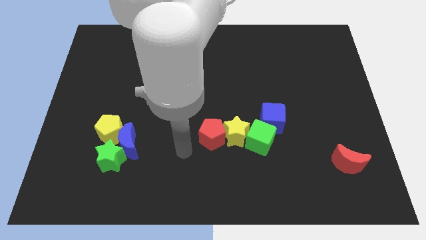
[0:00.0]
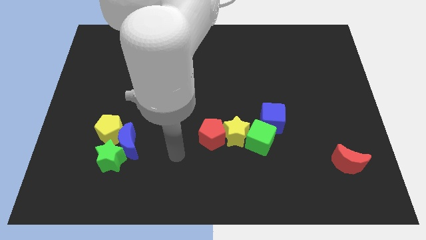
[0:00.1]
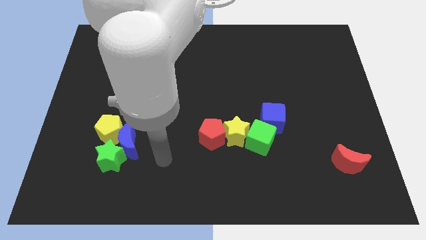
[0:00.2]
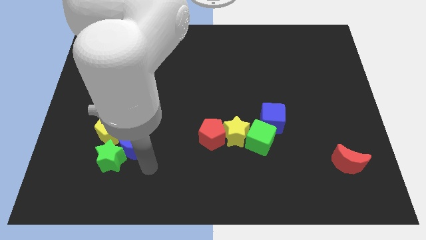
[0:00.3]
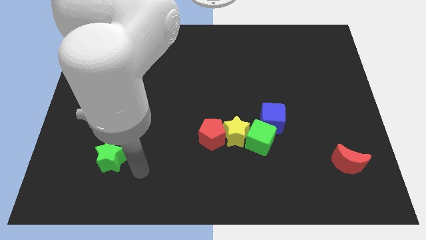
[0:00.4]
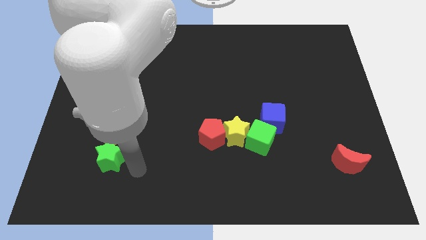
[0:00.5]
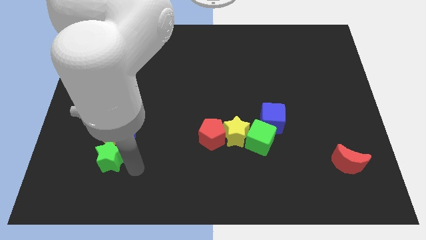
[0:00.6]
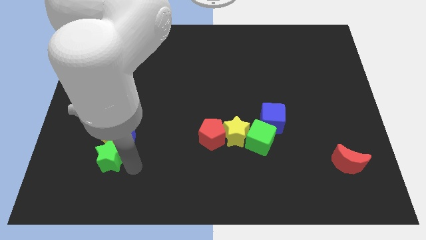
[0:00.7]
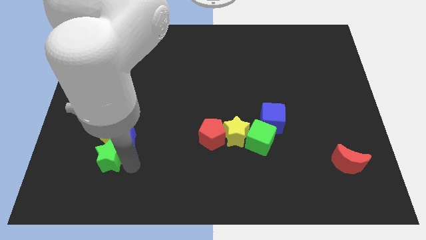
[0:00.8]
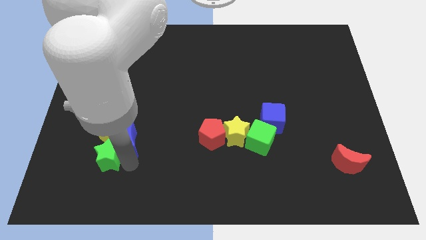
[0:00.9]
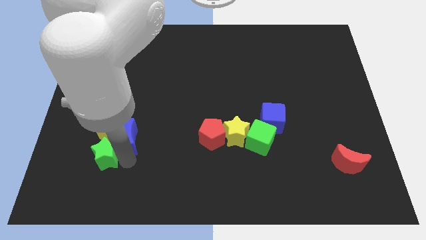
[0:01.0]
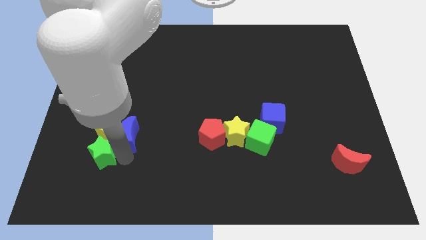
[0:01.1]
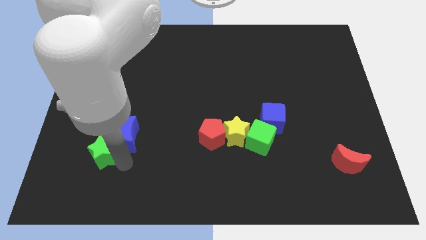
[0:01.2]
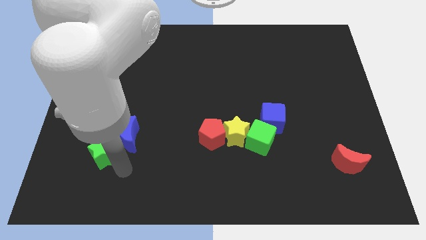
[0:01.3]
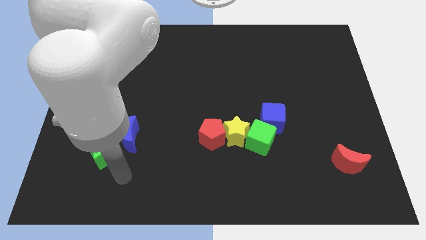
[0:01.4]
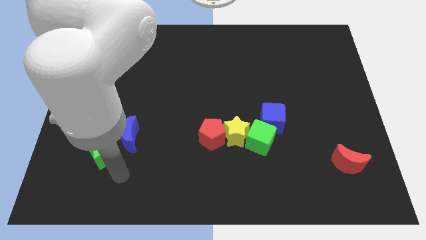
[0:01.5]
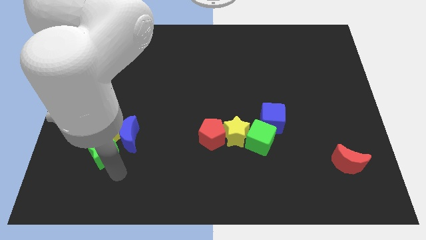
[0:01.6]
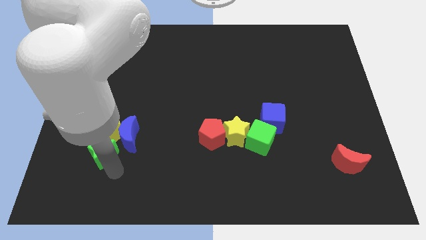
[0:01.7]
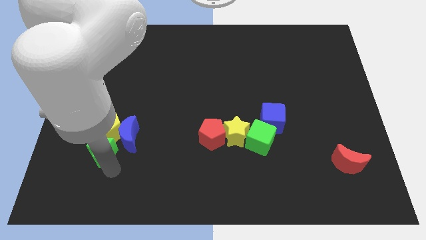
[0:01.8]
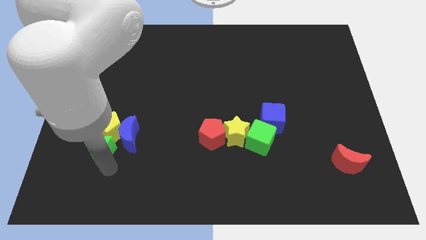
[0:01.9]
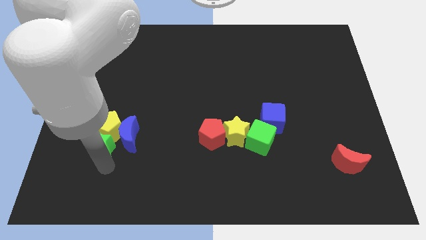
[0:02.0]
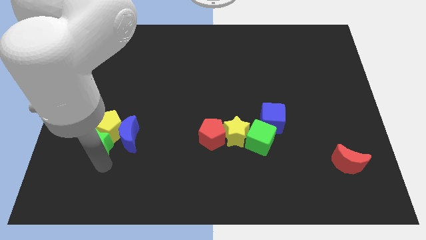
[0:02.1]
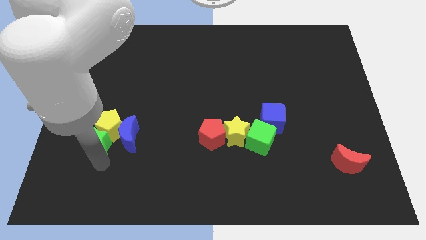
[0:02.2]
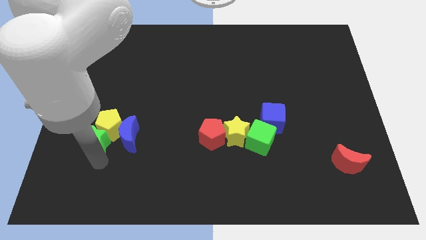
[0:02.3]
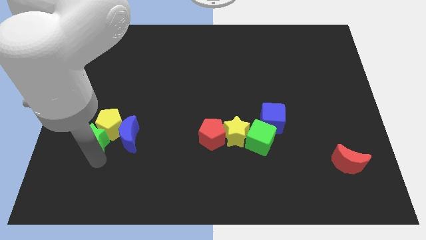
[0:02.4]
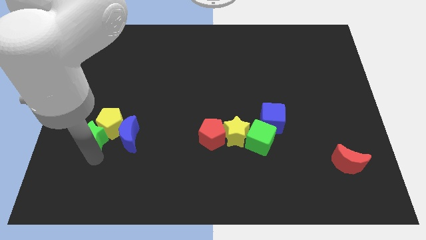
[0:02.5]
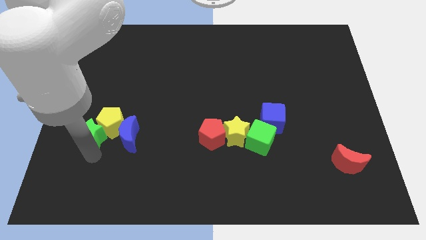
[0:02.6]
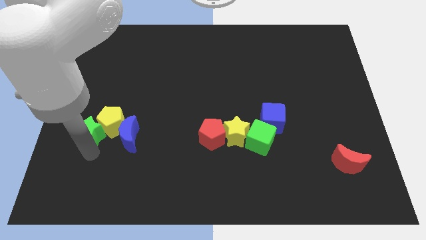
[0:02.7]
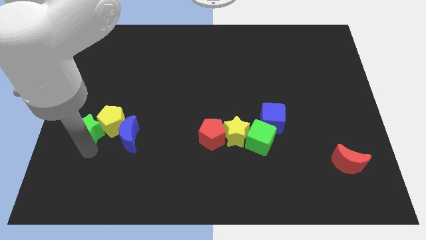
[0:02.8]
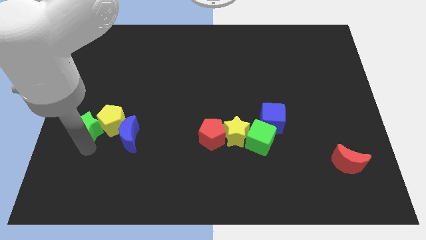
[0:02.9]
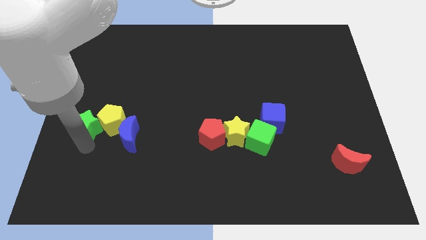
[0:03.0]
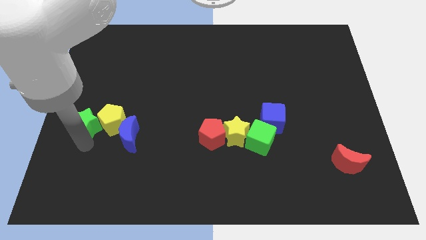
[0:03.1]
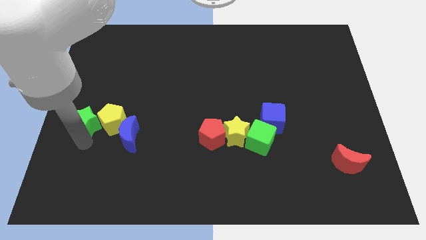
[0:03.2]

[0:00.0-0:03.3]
move the green star up somewhat

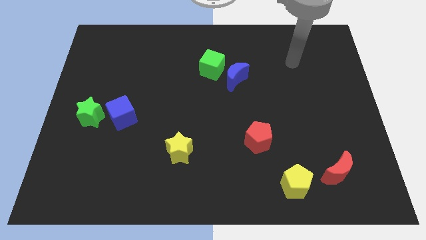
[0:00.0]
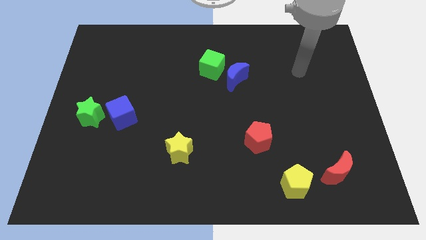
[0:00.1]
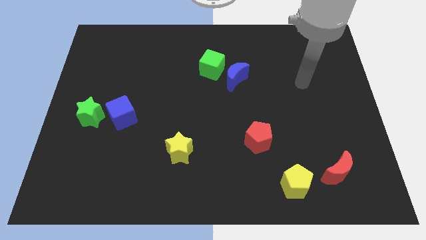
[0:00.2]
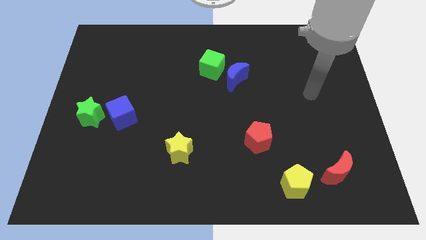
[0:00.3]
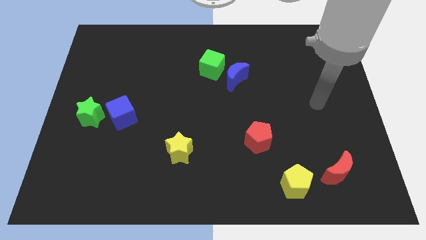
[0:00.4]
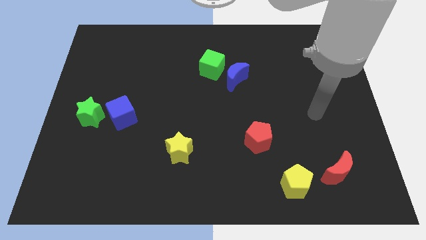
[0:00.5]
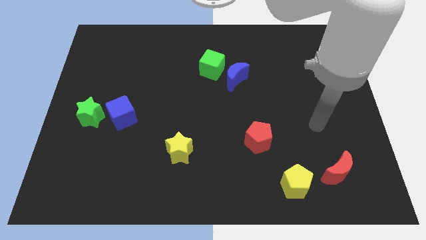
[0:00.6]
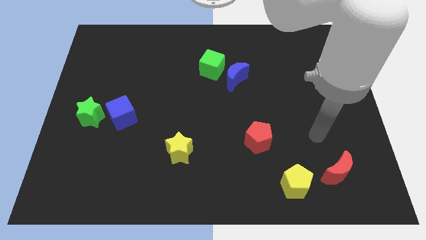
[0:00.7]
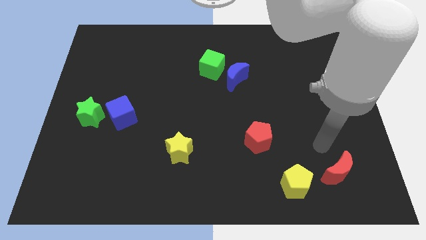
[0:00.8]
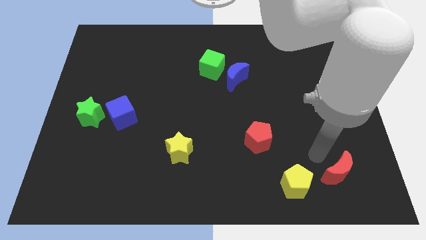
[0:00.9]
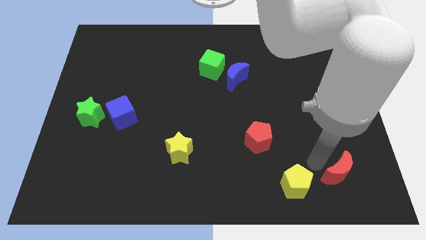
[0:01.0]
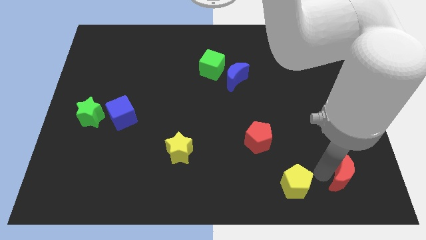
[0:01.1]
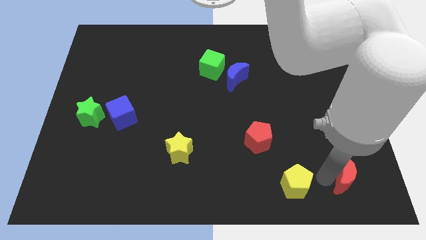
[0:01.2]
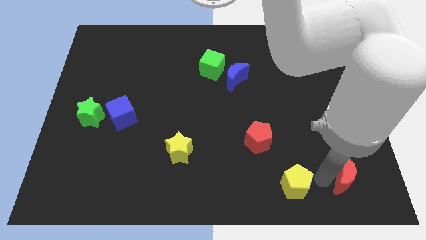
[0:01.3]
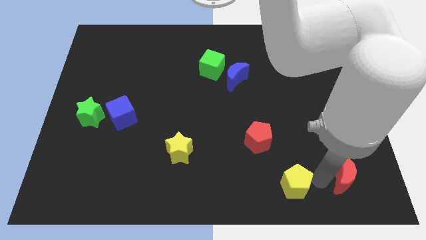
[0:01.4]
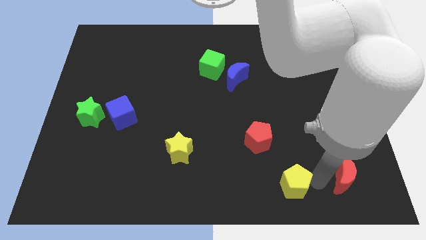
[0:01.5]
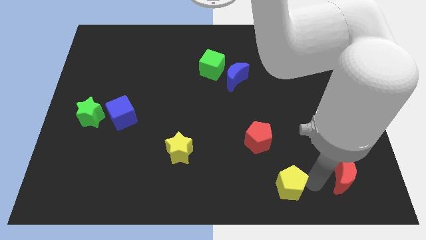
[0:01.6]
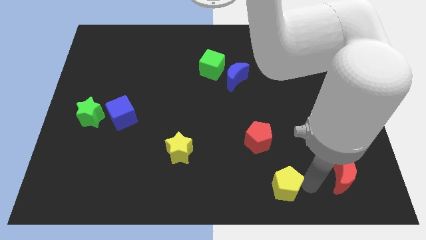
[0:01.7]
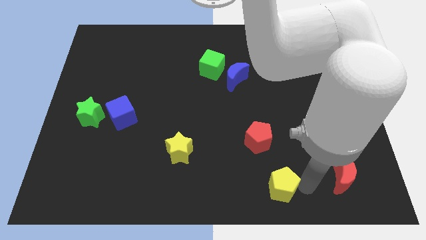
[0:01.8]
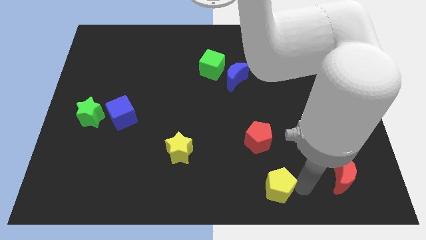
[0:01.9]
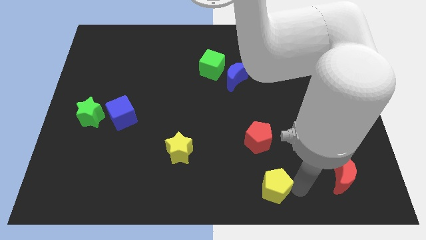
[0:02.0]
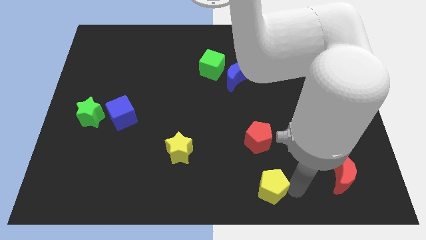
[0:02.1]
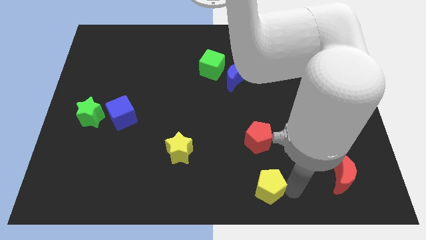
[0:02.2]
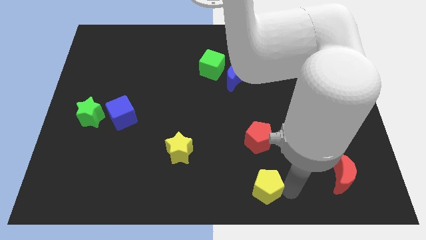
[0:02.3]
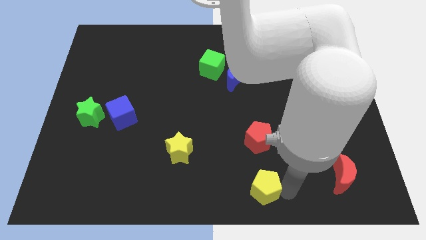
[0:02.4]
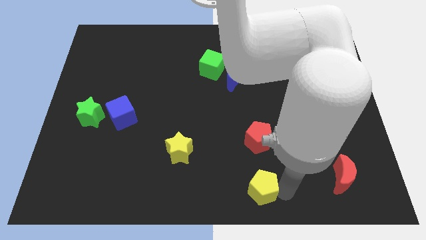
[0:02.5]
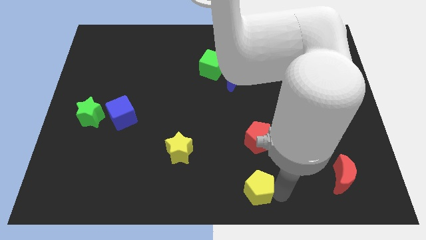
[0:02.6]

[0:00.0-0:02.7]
push the yellow pentagon a little to the left

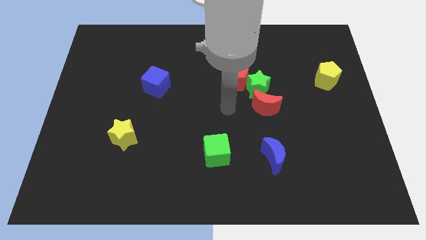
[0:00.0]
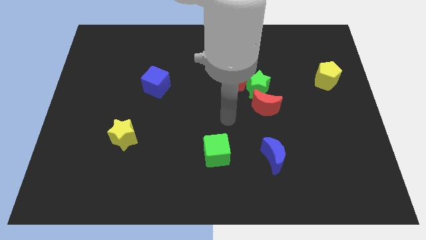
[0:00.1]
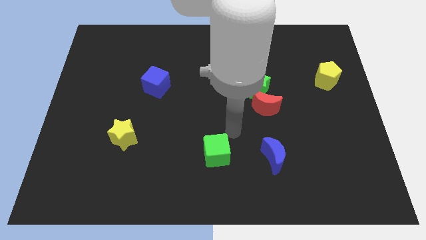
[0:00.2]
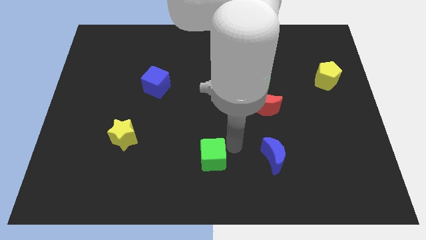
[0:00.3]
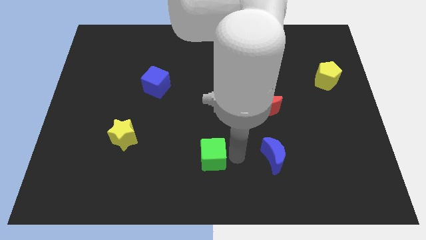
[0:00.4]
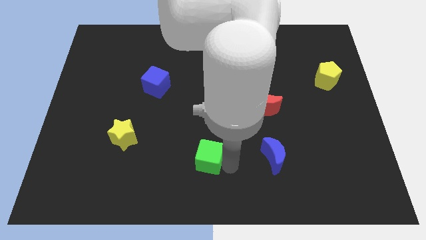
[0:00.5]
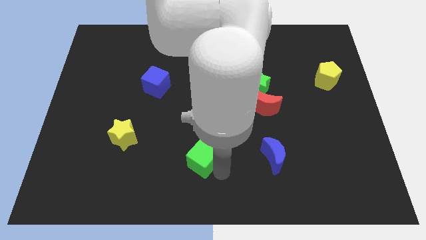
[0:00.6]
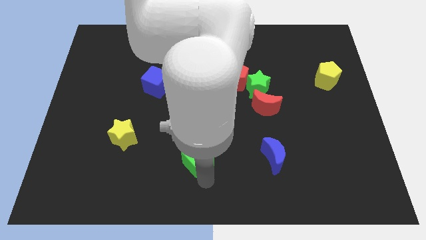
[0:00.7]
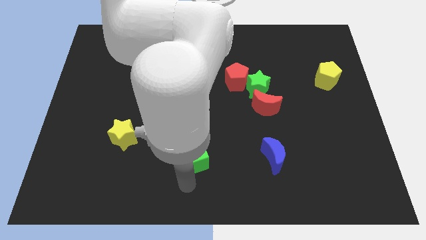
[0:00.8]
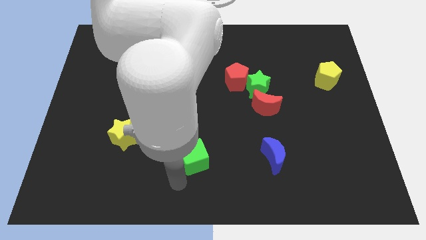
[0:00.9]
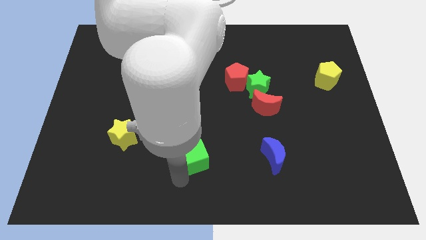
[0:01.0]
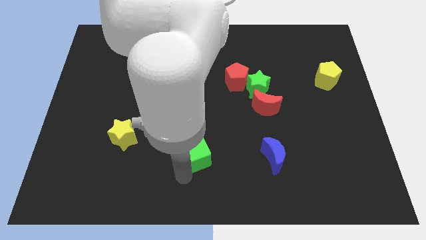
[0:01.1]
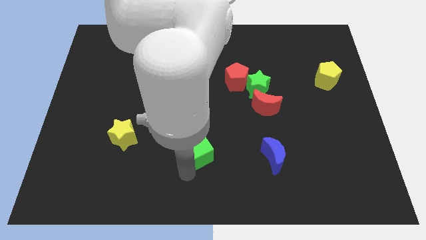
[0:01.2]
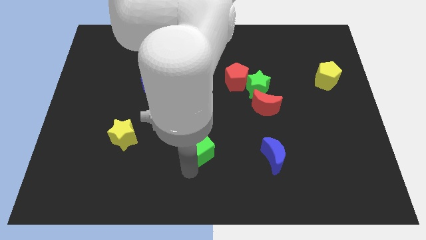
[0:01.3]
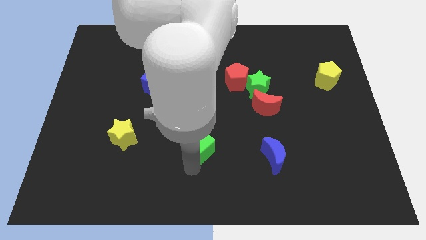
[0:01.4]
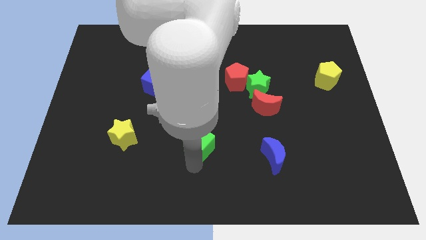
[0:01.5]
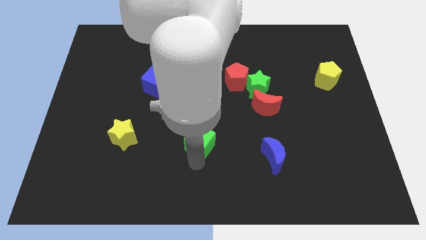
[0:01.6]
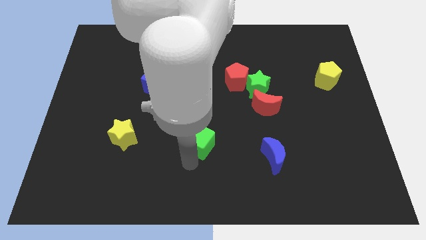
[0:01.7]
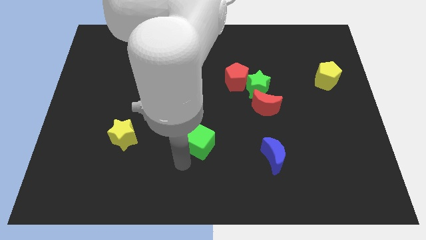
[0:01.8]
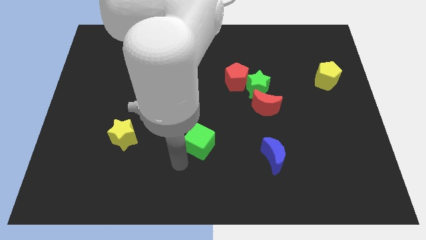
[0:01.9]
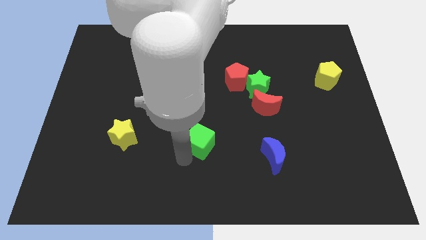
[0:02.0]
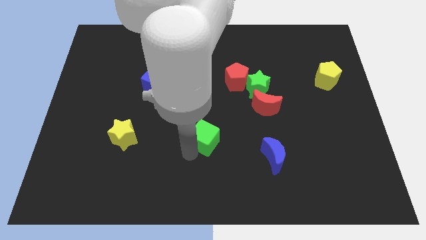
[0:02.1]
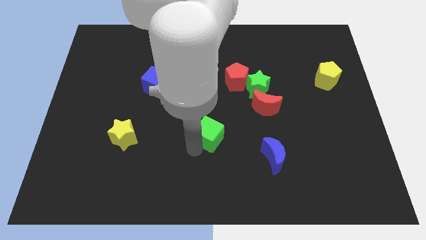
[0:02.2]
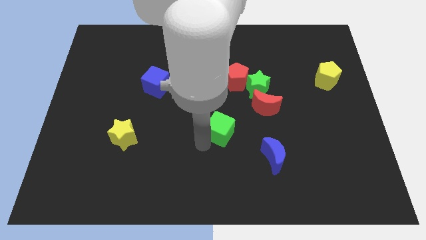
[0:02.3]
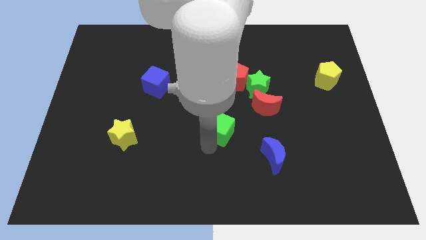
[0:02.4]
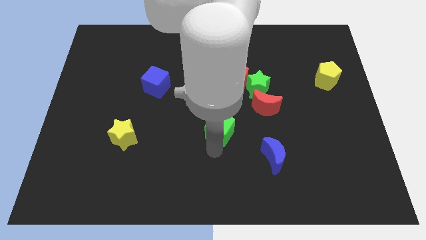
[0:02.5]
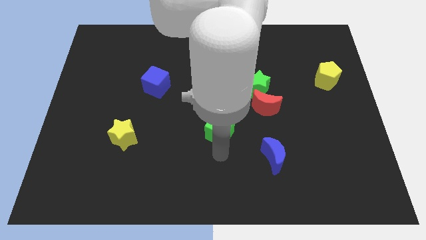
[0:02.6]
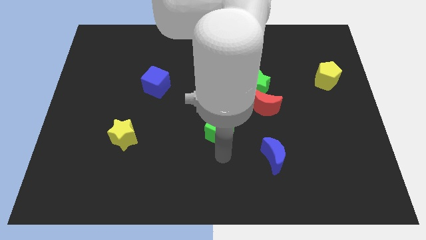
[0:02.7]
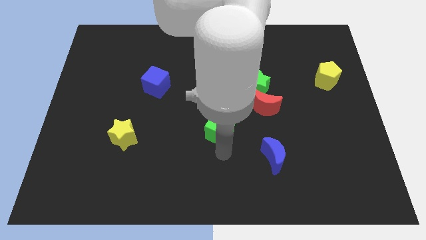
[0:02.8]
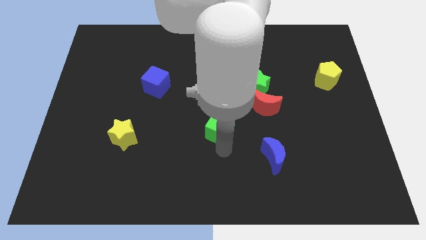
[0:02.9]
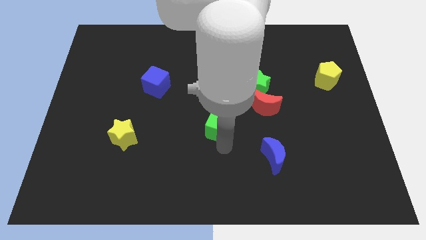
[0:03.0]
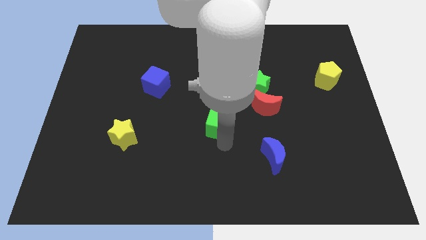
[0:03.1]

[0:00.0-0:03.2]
move the green cube up a bit
